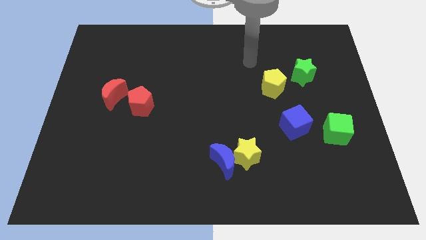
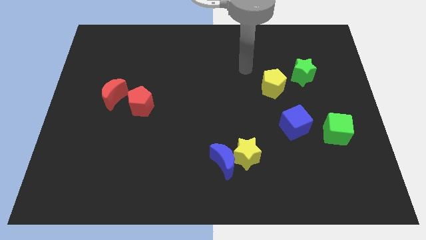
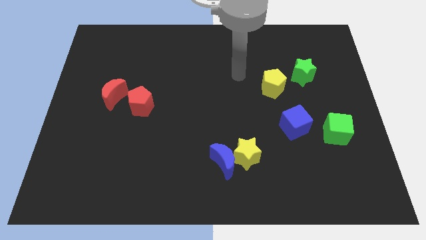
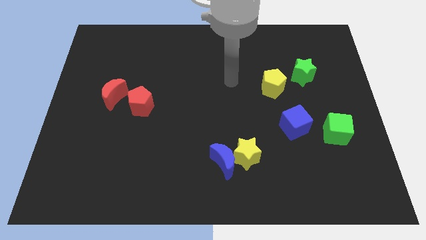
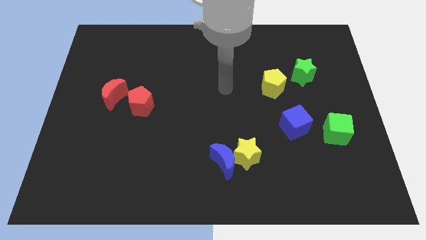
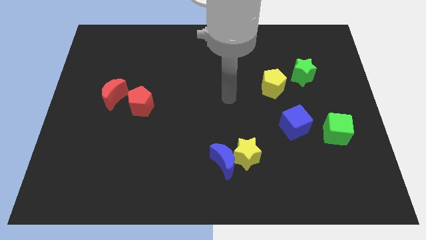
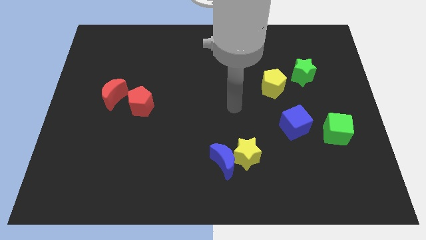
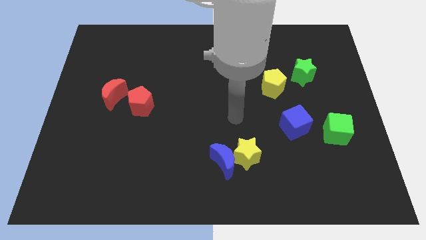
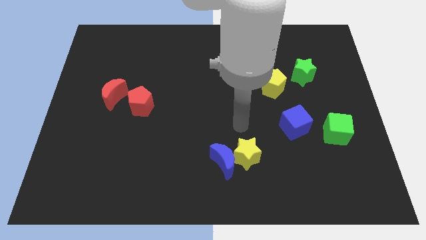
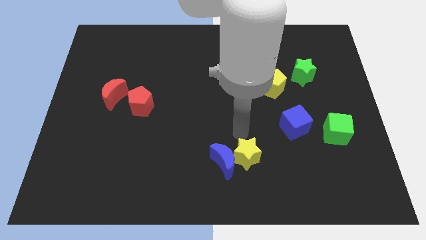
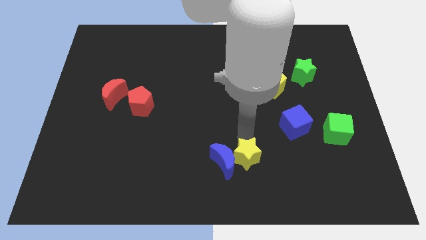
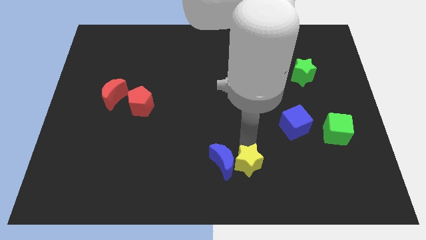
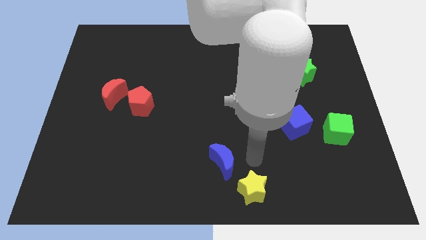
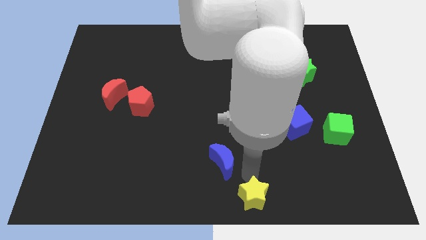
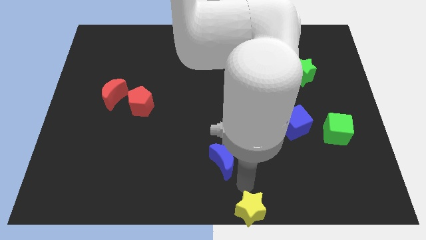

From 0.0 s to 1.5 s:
separate the blue moon from the yellow star

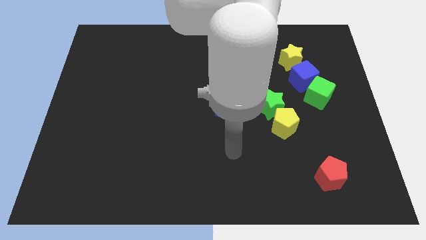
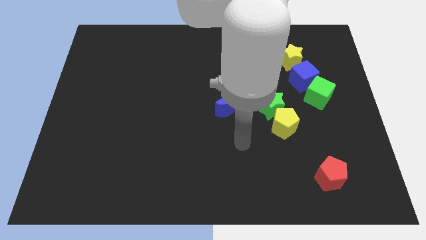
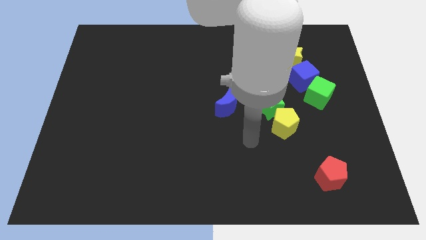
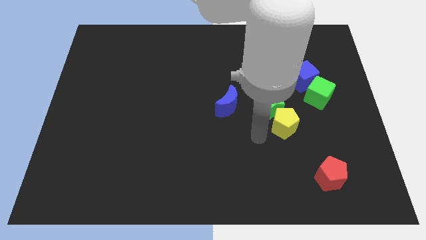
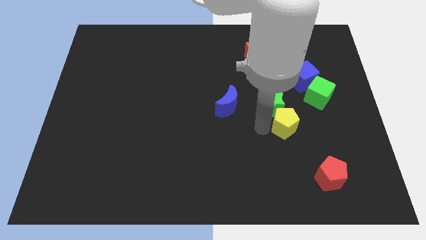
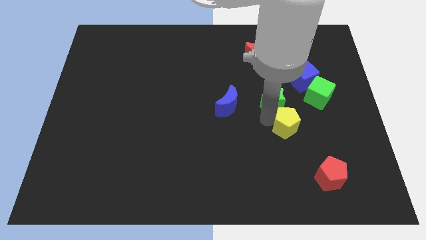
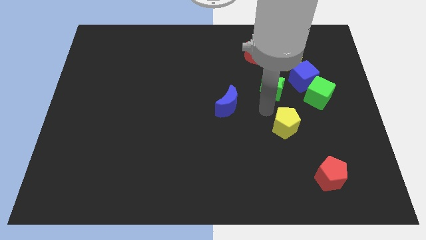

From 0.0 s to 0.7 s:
pull the yellow pentagon apart from the green star

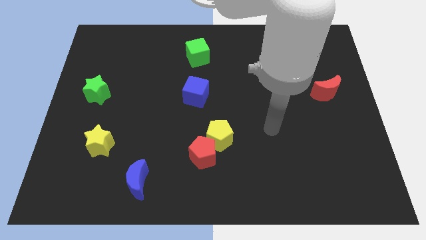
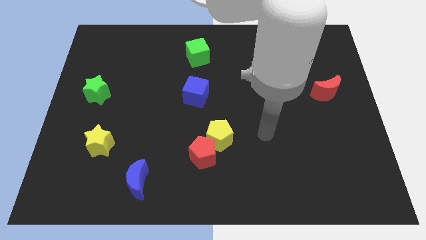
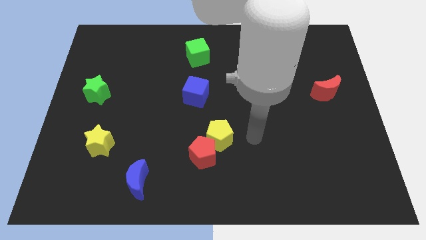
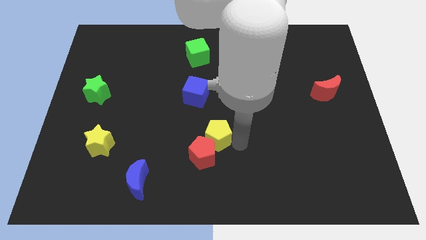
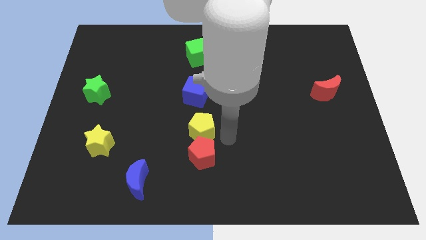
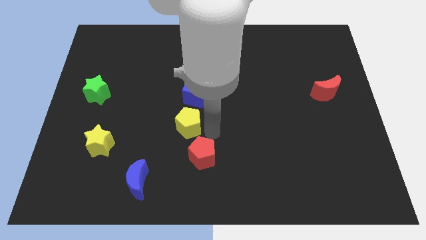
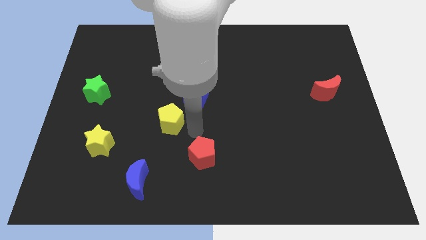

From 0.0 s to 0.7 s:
move the red pentagon away from the yellow pentagon

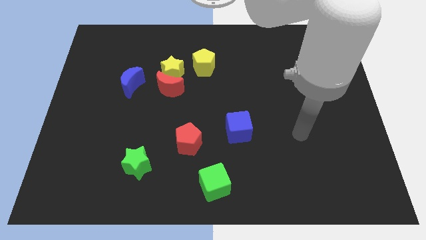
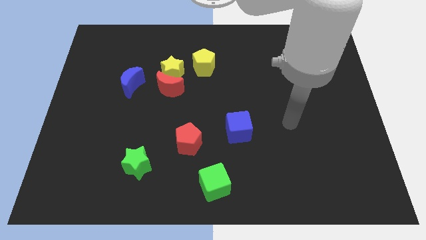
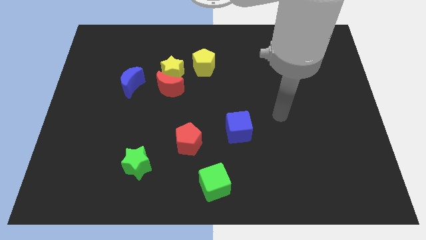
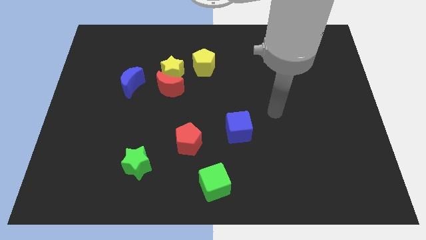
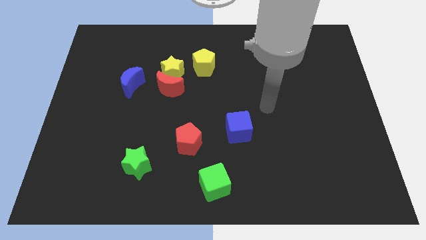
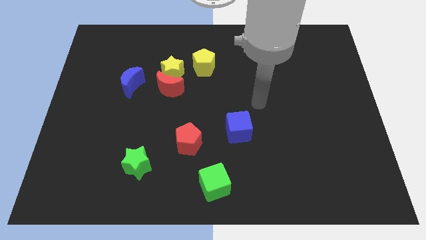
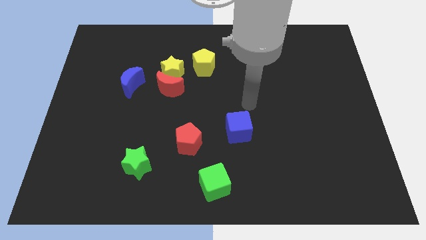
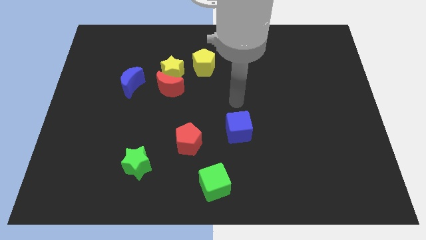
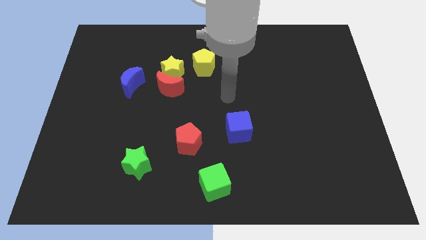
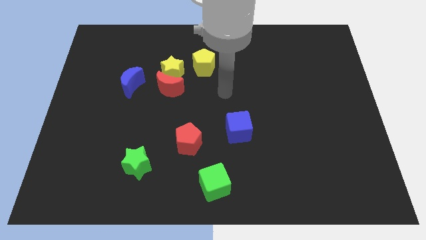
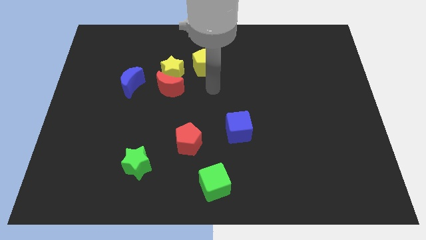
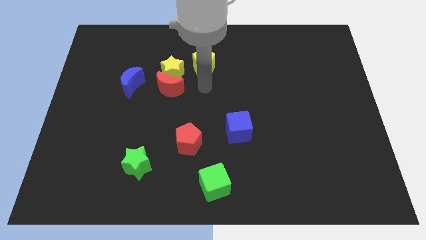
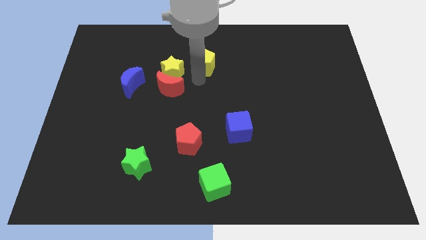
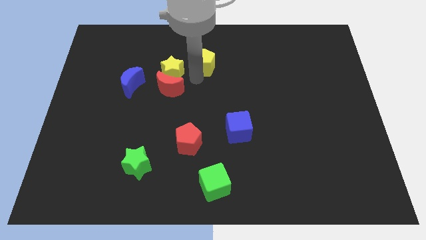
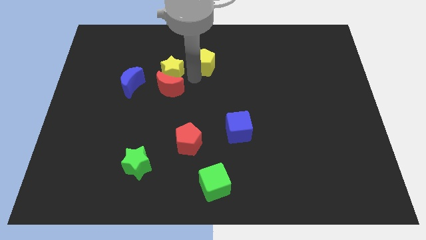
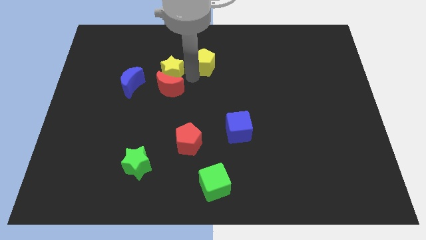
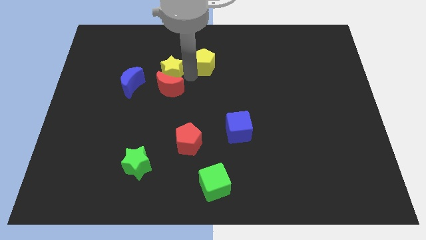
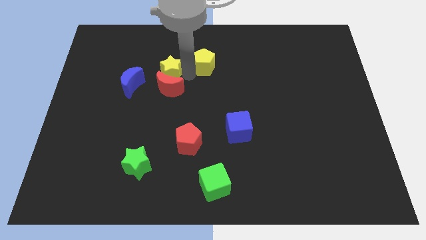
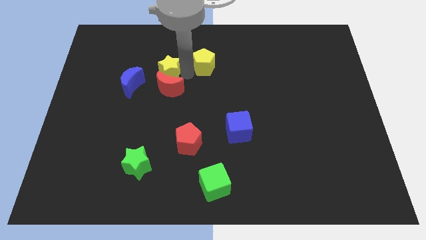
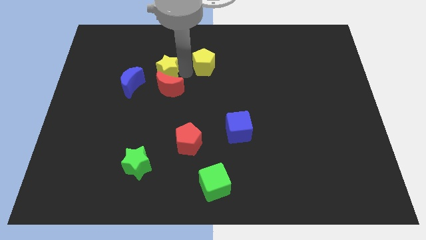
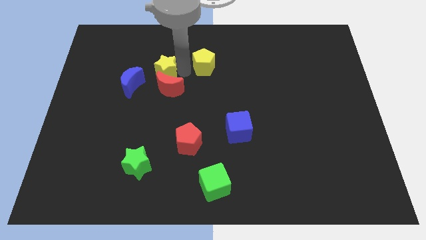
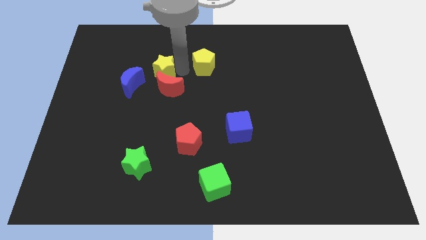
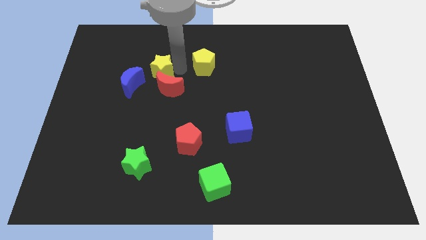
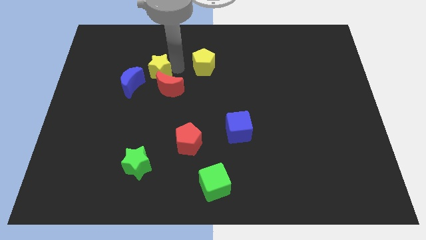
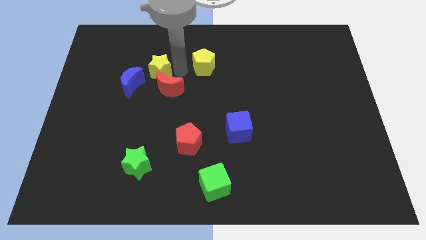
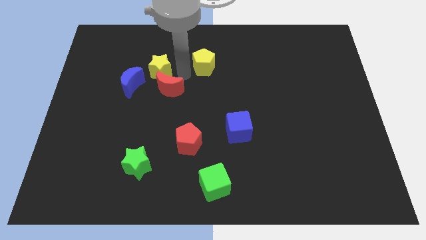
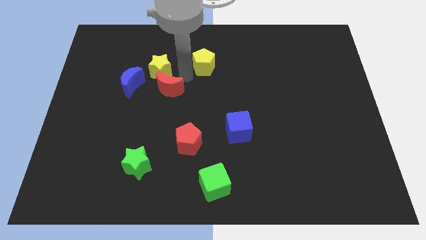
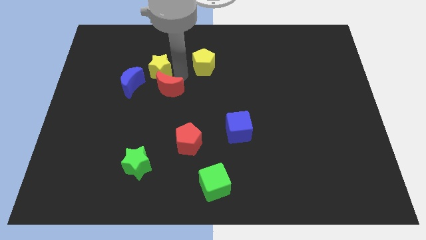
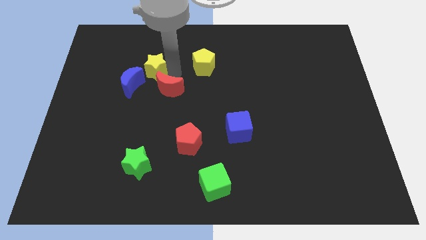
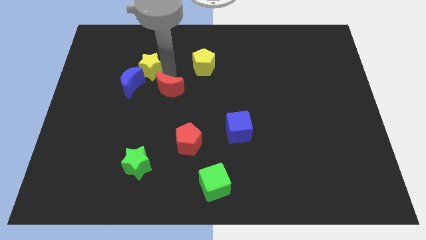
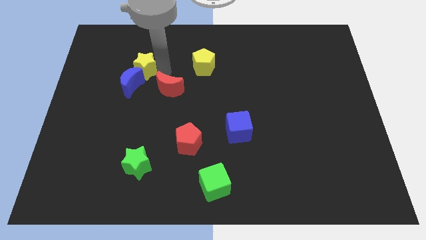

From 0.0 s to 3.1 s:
separate the yellow star from the red moon and yellow pentagon

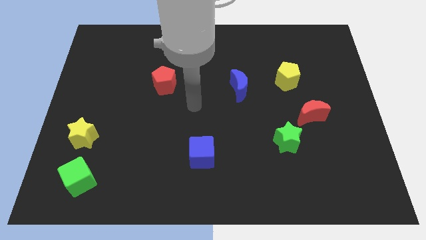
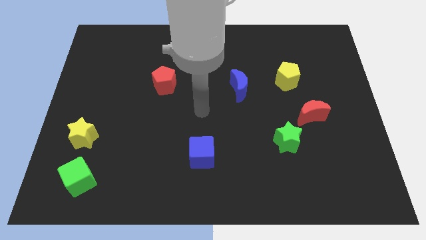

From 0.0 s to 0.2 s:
pull the red moon apart from the green star

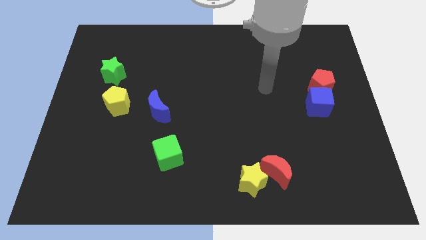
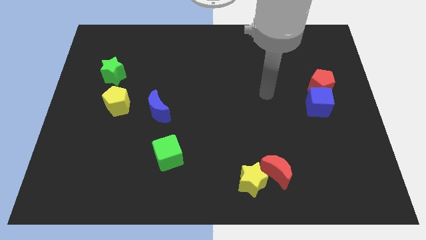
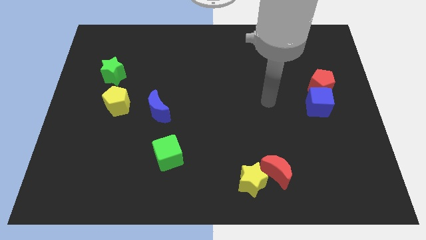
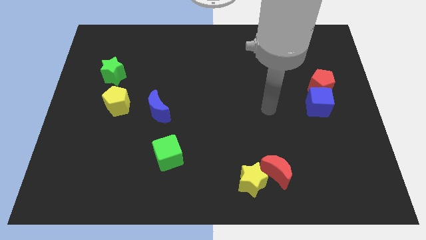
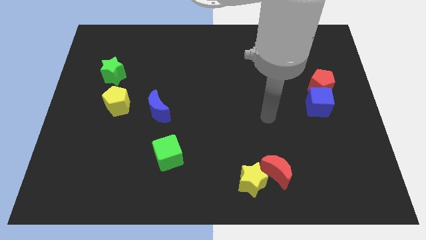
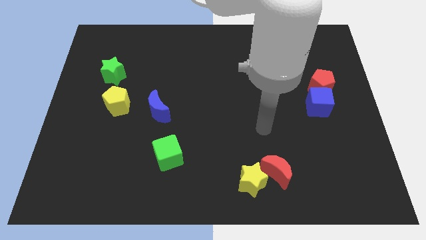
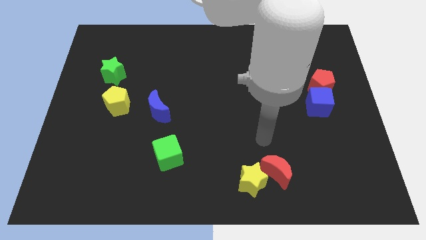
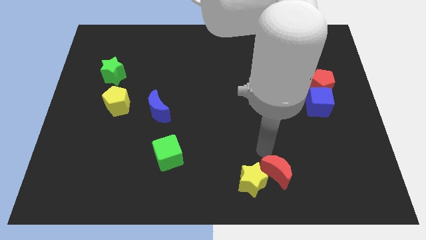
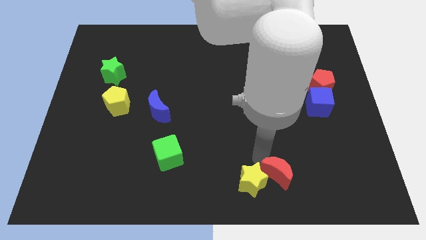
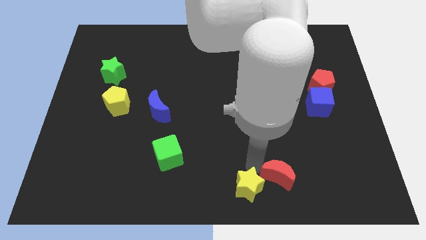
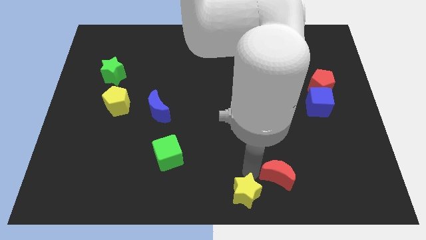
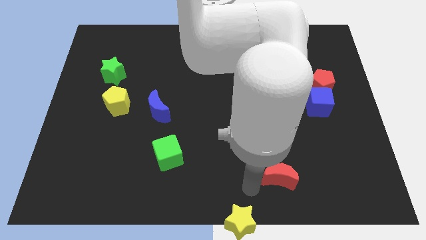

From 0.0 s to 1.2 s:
move the red moon away from the yellow star

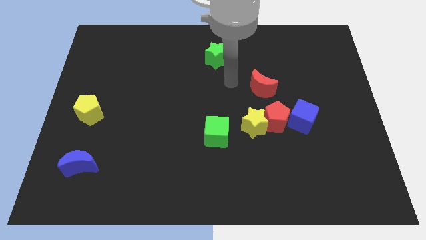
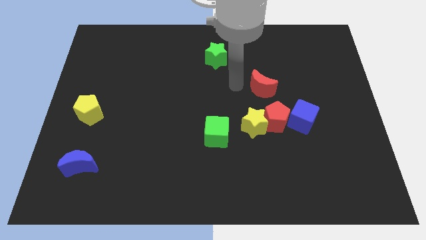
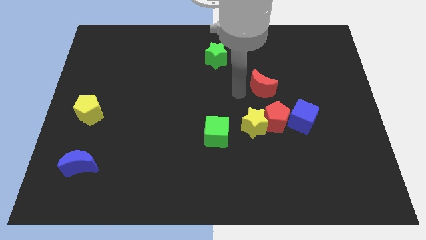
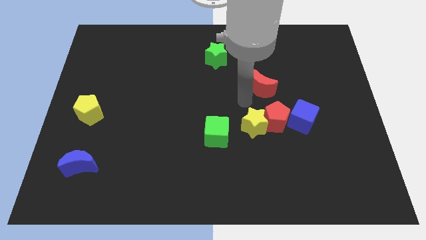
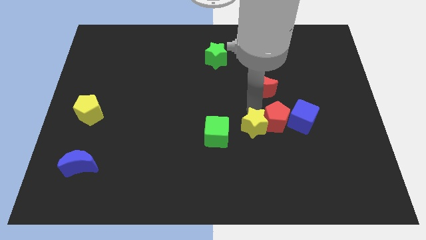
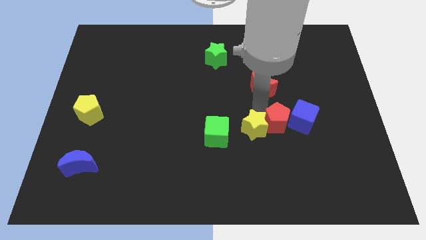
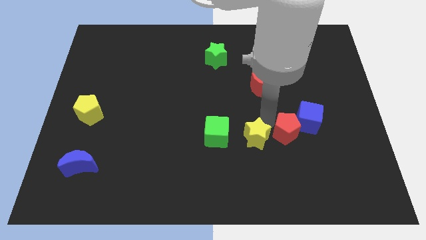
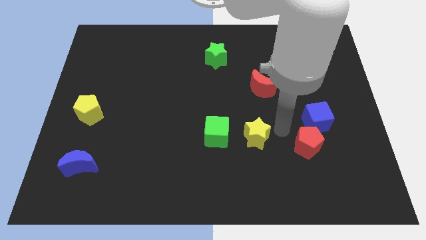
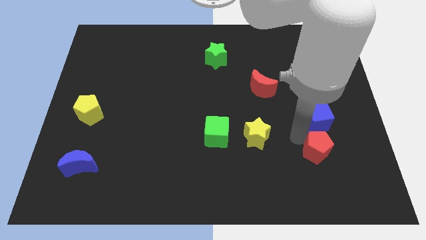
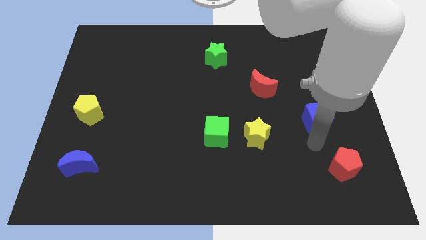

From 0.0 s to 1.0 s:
pull the blue cube apart from the red pentagon

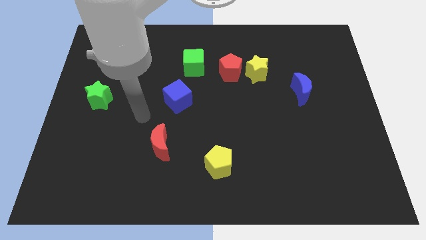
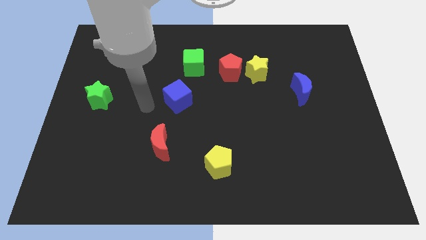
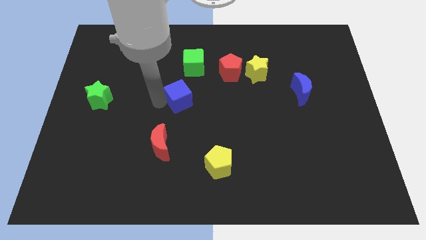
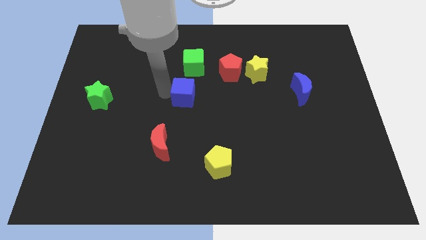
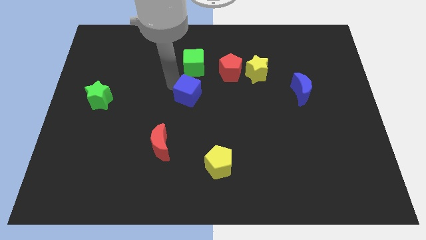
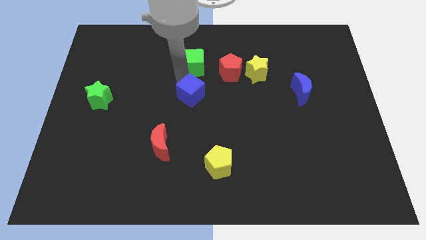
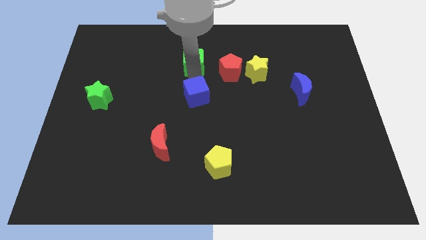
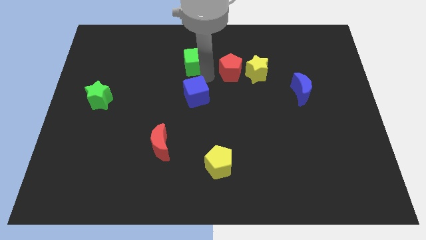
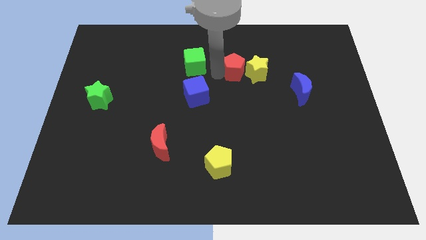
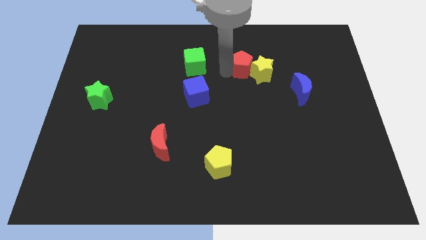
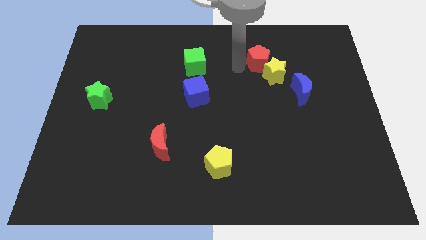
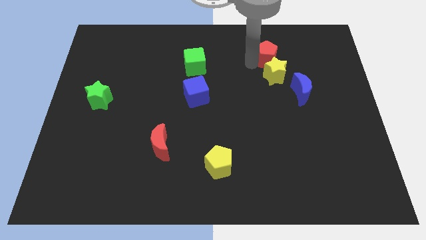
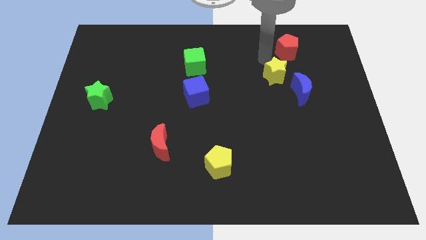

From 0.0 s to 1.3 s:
pull the yellow star apart from the red pentagon
